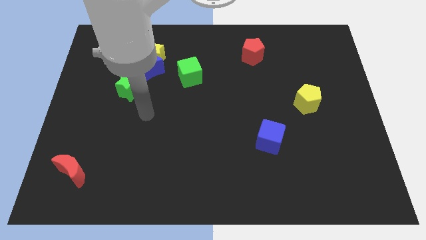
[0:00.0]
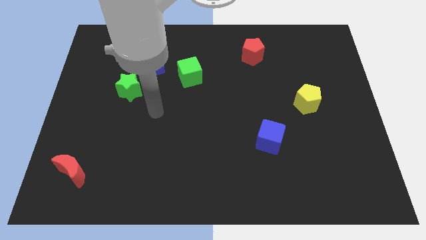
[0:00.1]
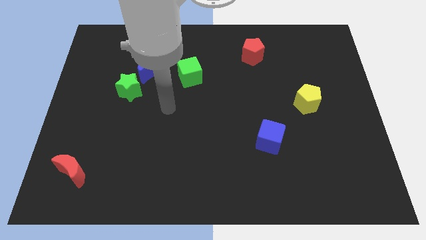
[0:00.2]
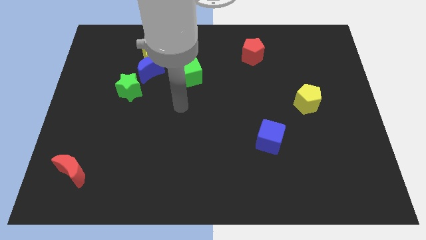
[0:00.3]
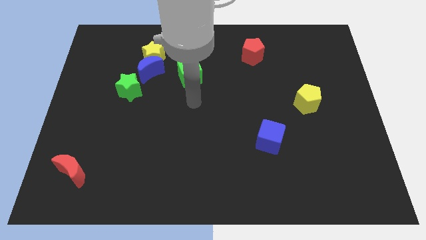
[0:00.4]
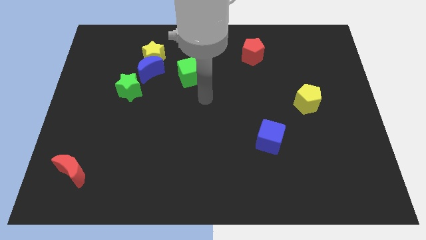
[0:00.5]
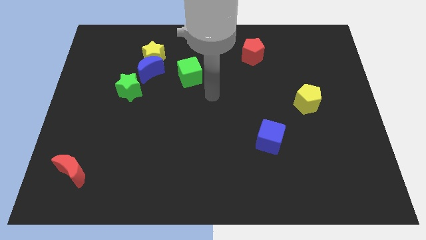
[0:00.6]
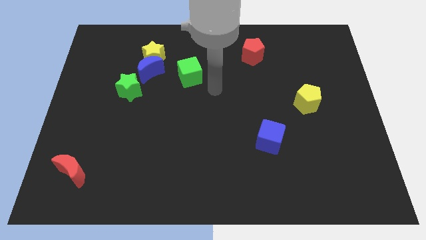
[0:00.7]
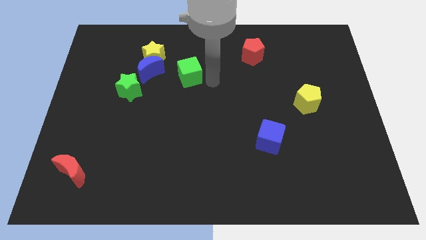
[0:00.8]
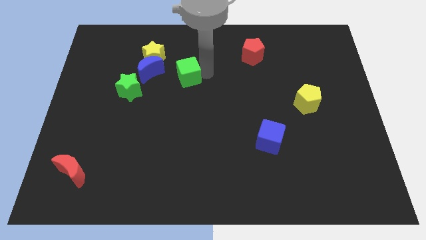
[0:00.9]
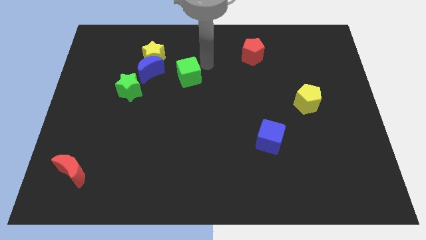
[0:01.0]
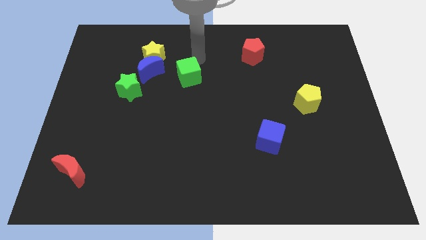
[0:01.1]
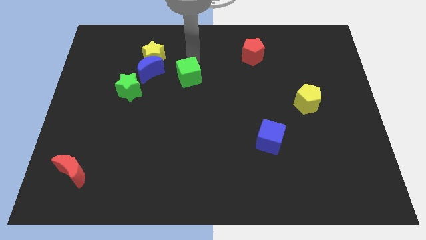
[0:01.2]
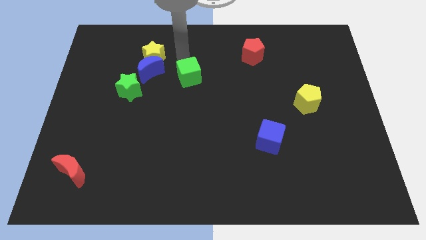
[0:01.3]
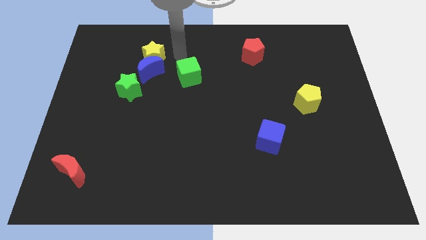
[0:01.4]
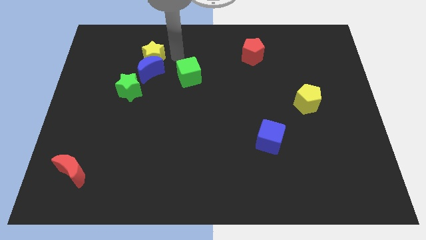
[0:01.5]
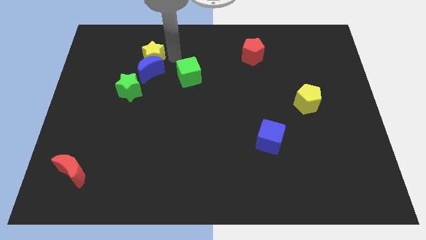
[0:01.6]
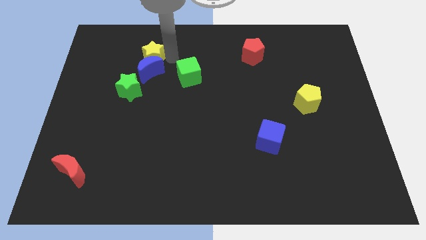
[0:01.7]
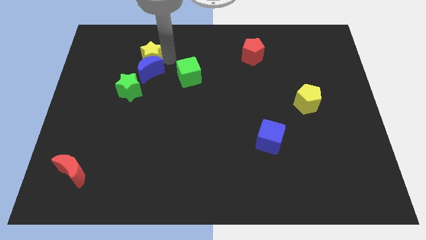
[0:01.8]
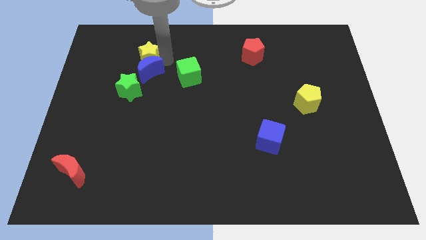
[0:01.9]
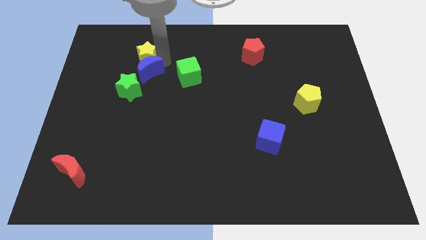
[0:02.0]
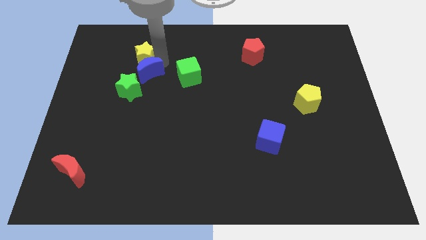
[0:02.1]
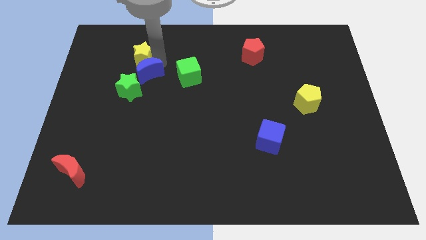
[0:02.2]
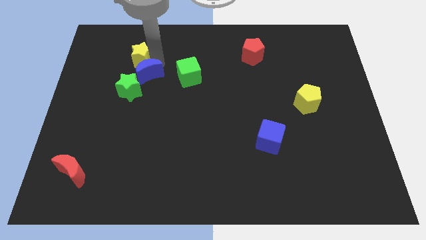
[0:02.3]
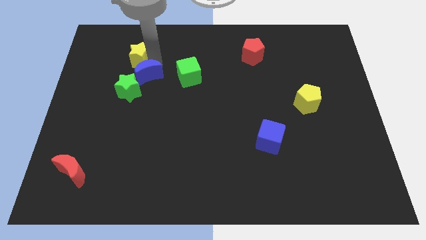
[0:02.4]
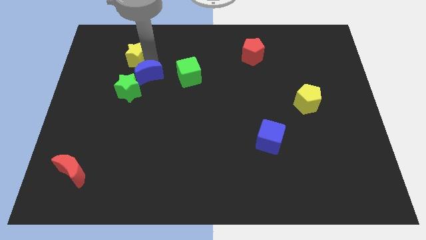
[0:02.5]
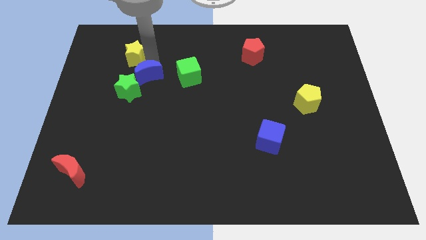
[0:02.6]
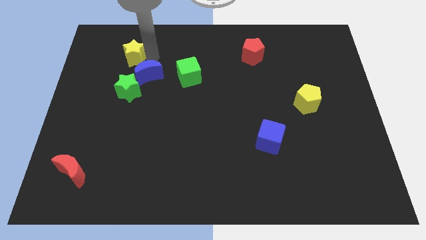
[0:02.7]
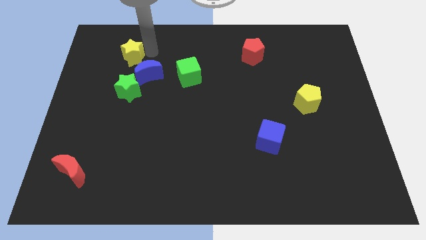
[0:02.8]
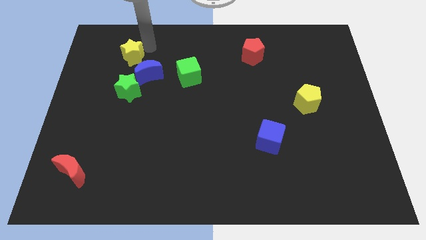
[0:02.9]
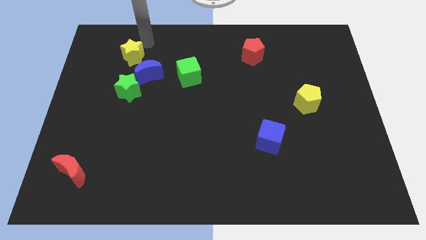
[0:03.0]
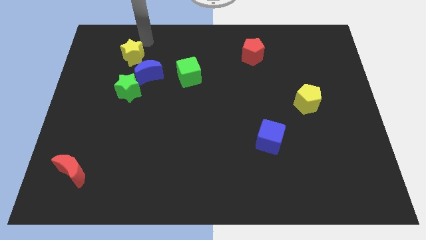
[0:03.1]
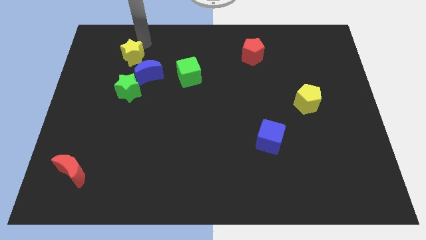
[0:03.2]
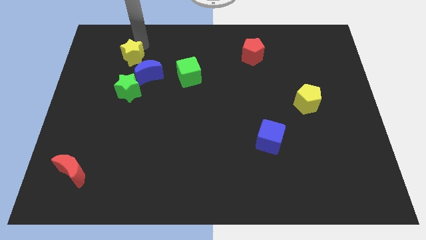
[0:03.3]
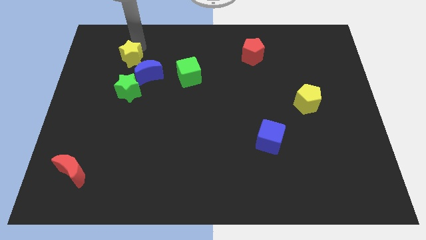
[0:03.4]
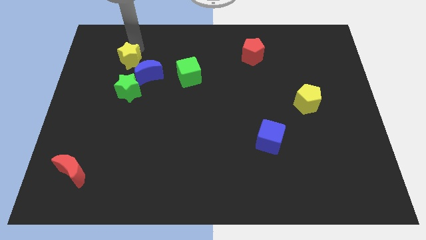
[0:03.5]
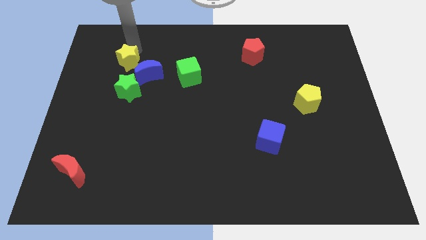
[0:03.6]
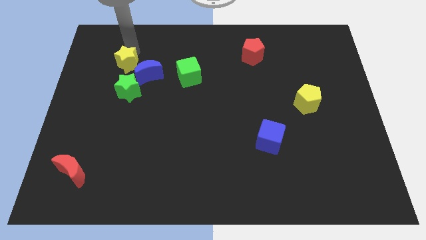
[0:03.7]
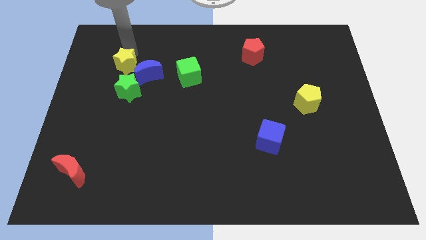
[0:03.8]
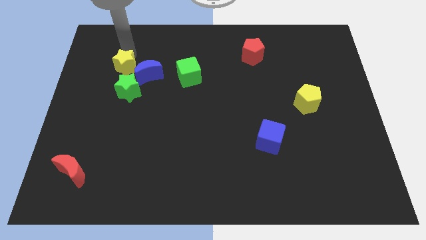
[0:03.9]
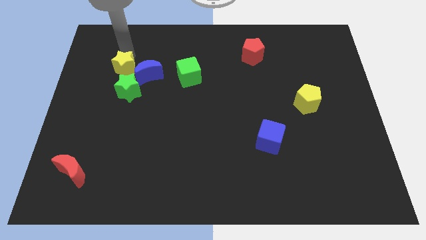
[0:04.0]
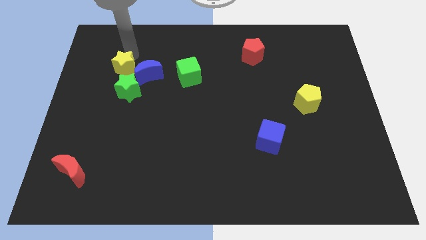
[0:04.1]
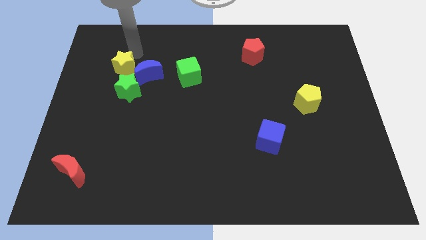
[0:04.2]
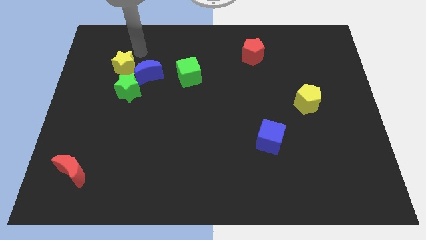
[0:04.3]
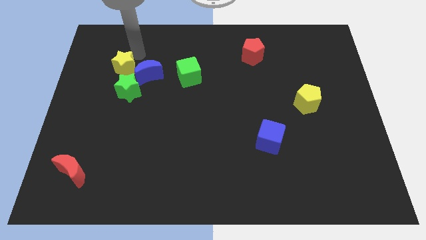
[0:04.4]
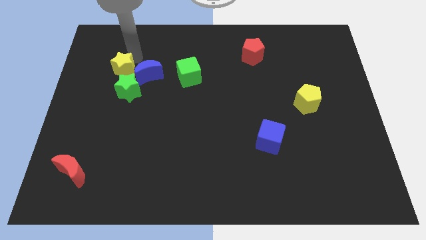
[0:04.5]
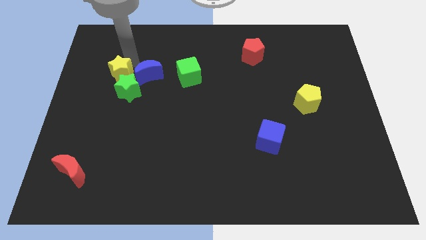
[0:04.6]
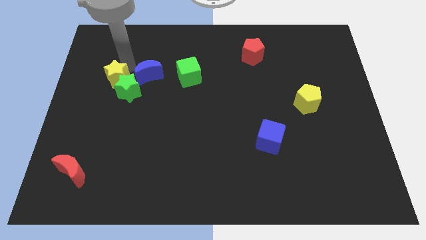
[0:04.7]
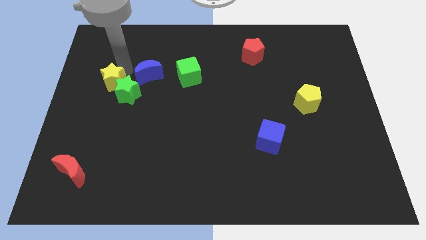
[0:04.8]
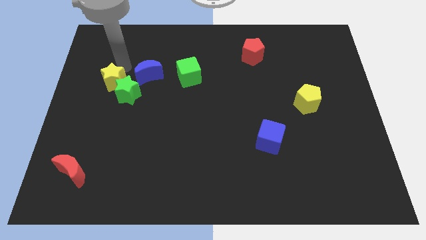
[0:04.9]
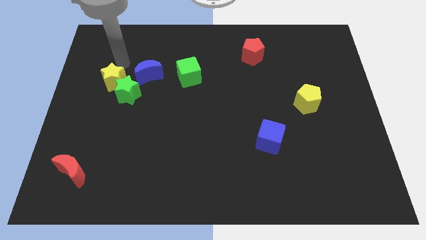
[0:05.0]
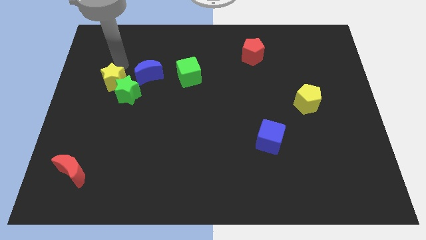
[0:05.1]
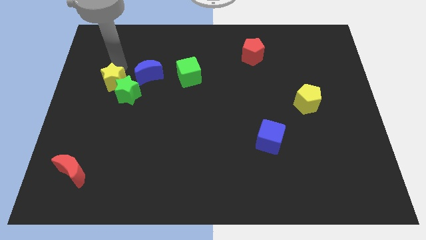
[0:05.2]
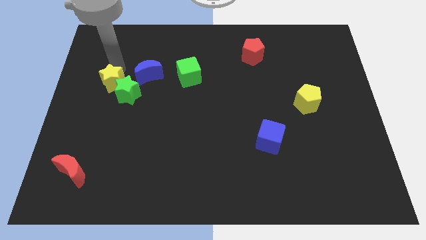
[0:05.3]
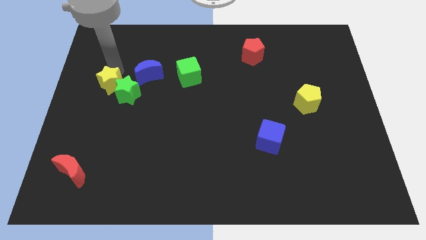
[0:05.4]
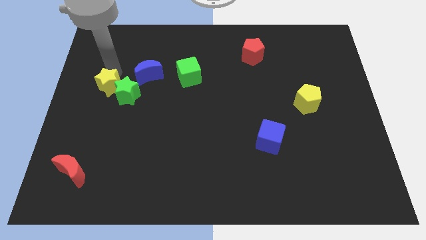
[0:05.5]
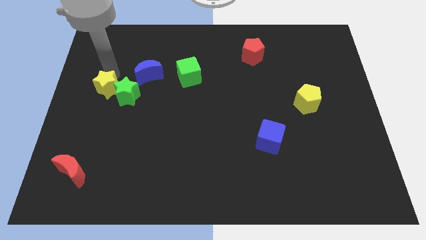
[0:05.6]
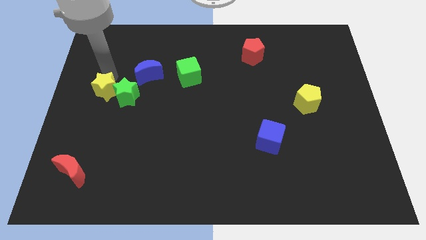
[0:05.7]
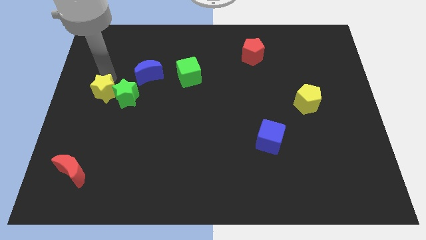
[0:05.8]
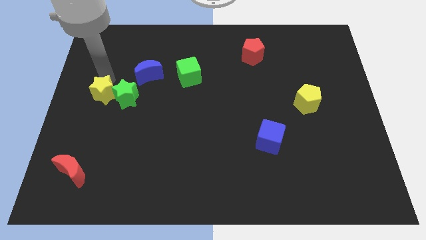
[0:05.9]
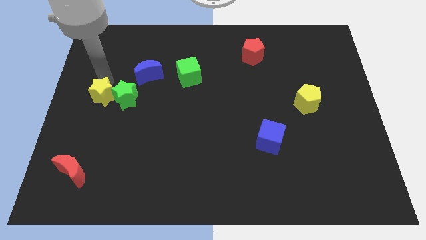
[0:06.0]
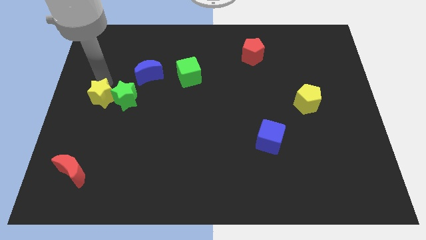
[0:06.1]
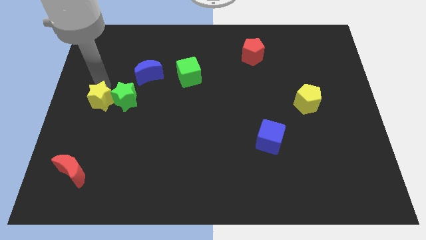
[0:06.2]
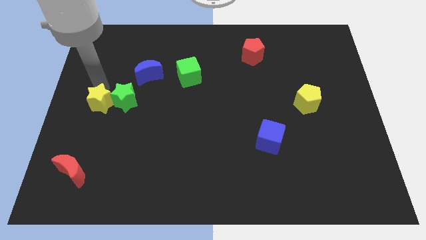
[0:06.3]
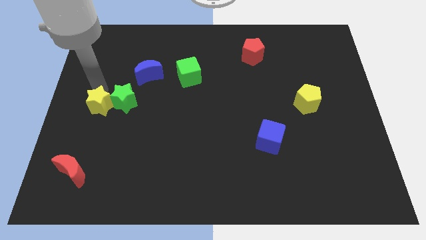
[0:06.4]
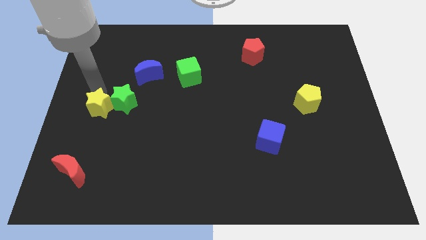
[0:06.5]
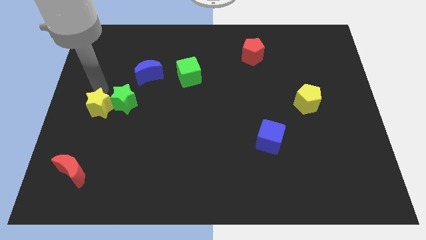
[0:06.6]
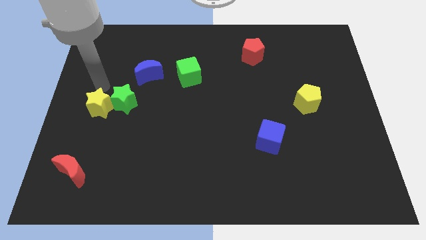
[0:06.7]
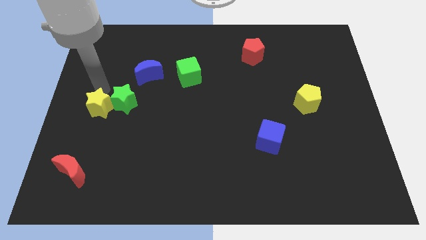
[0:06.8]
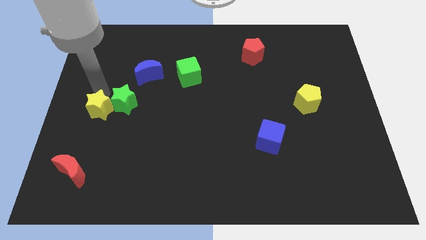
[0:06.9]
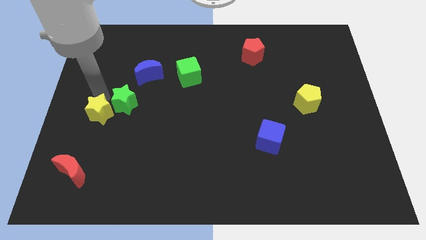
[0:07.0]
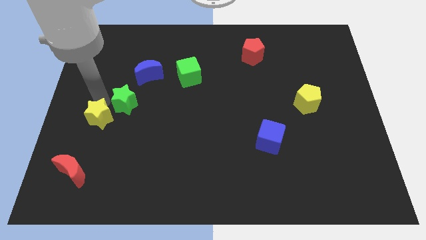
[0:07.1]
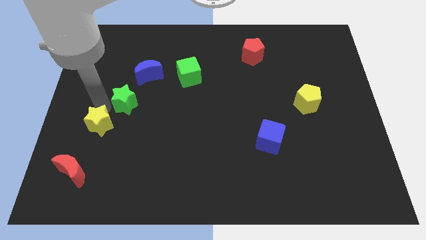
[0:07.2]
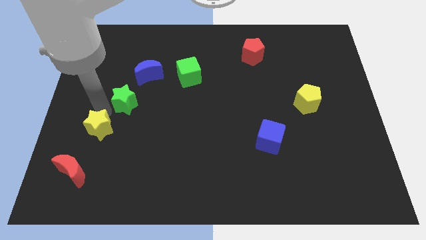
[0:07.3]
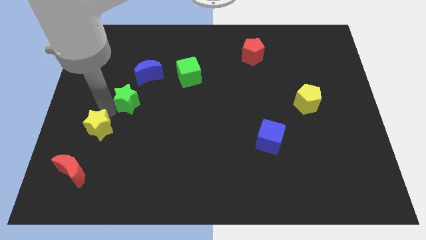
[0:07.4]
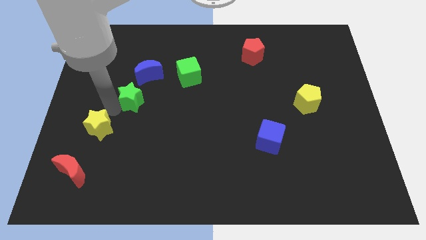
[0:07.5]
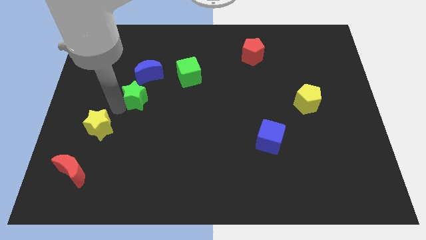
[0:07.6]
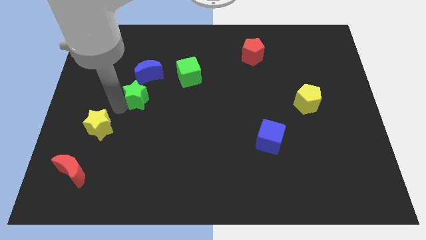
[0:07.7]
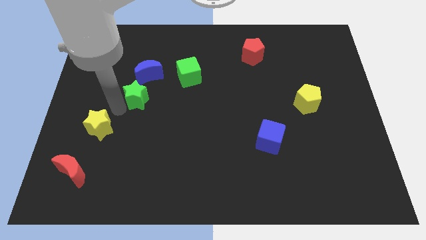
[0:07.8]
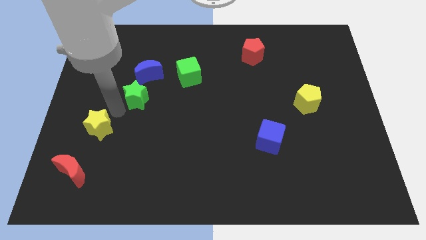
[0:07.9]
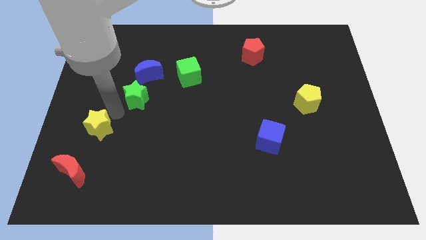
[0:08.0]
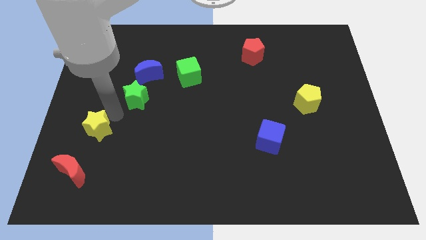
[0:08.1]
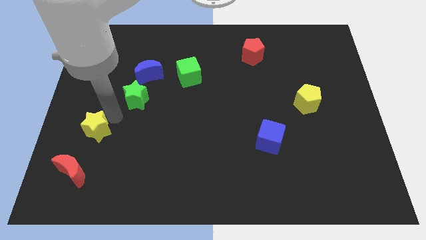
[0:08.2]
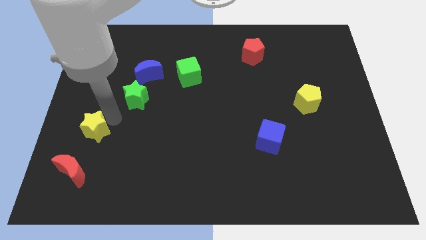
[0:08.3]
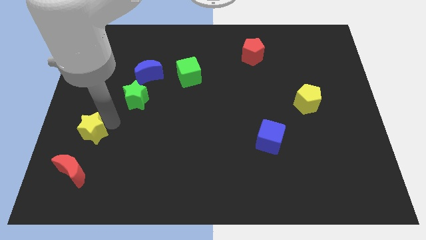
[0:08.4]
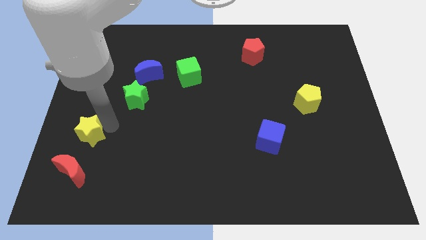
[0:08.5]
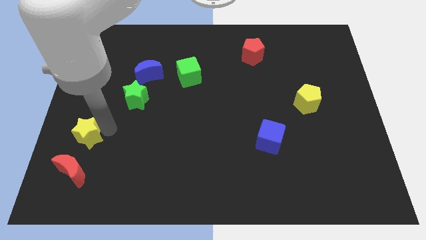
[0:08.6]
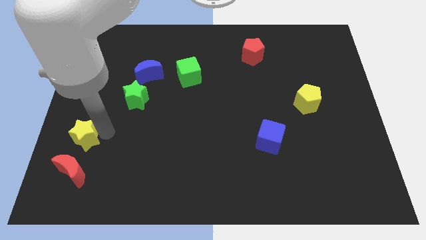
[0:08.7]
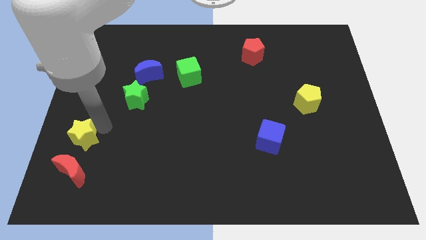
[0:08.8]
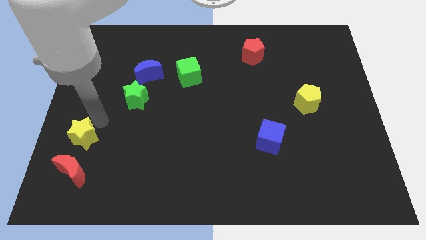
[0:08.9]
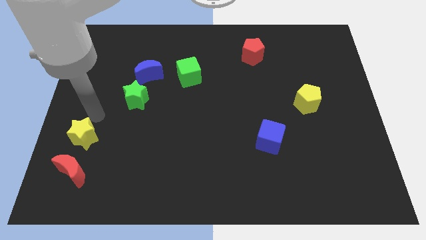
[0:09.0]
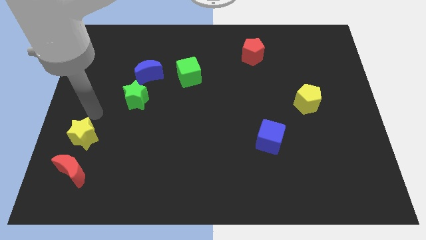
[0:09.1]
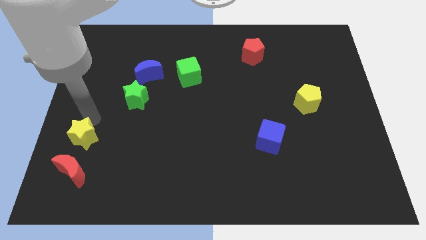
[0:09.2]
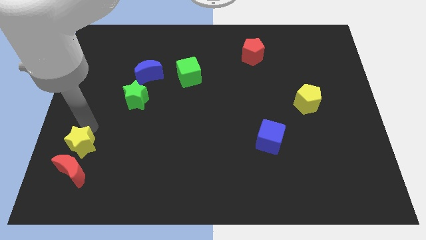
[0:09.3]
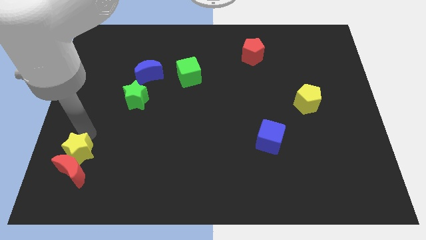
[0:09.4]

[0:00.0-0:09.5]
put the yellow star towards the red moon
